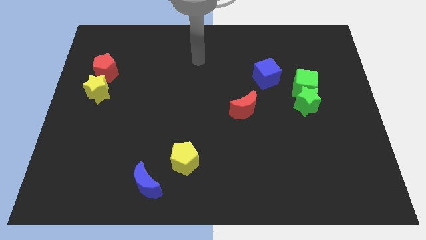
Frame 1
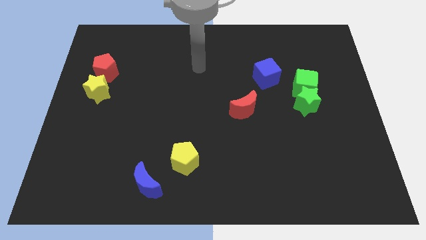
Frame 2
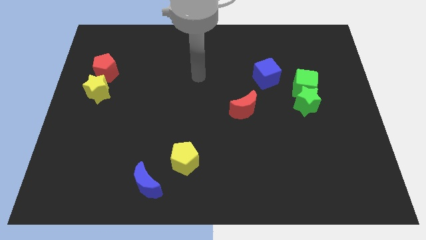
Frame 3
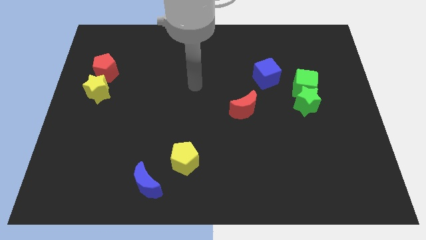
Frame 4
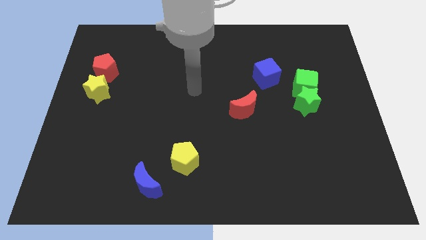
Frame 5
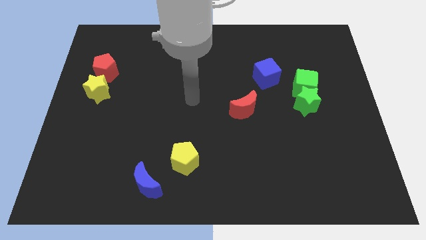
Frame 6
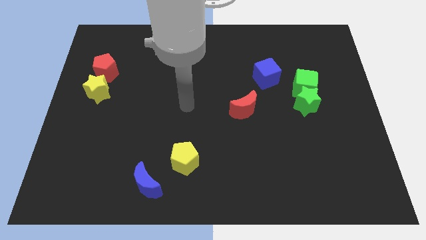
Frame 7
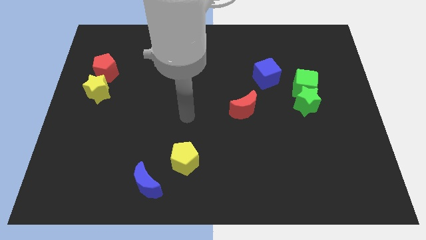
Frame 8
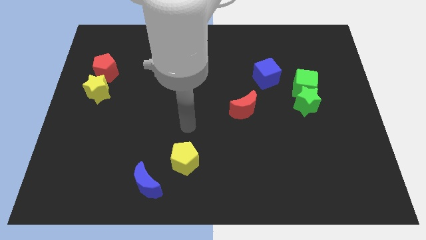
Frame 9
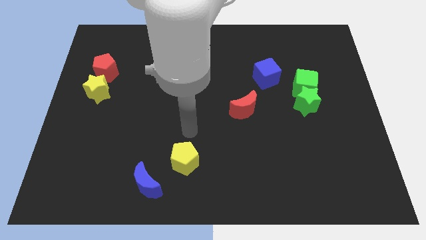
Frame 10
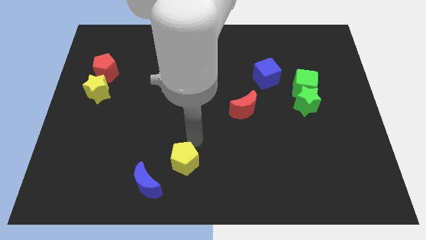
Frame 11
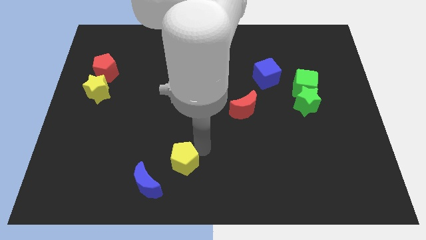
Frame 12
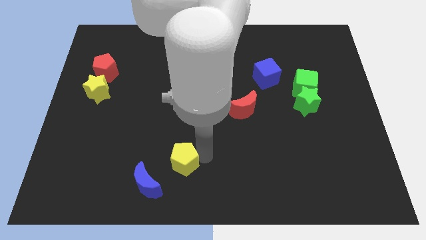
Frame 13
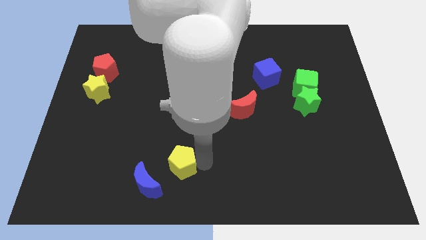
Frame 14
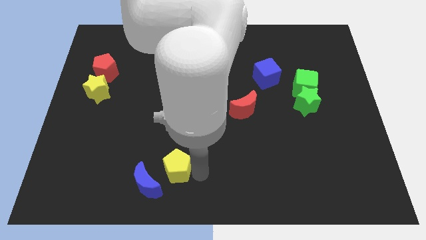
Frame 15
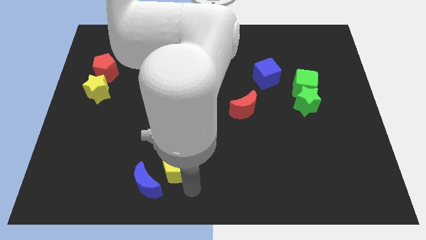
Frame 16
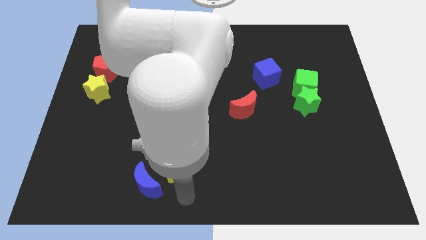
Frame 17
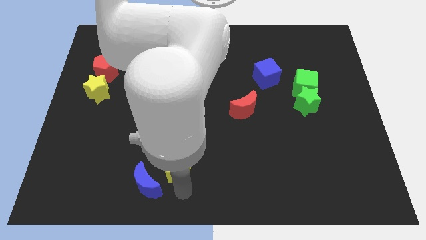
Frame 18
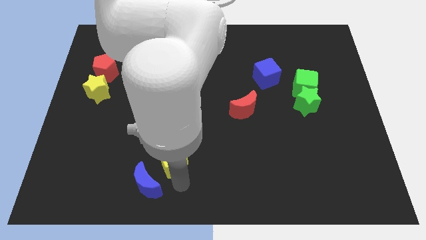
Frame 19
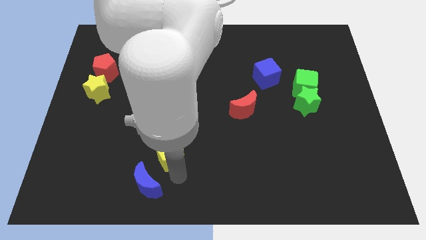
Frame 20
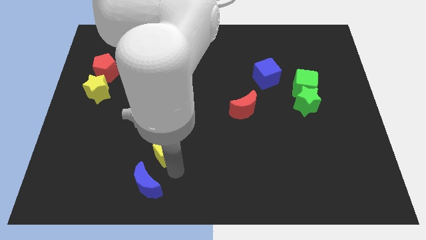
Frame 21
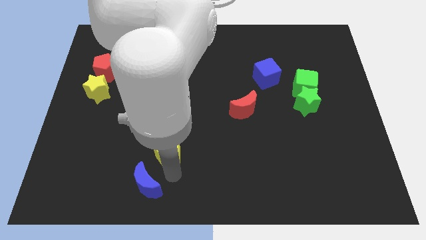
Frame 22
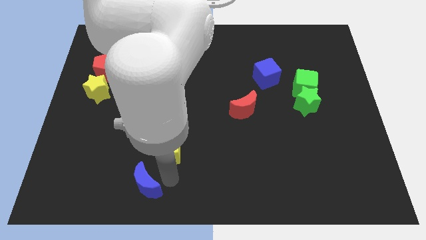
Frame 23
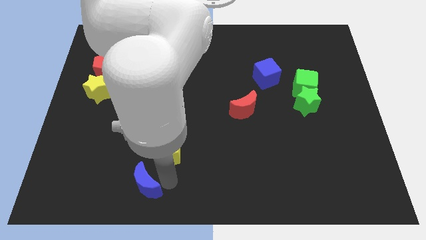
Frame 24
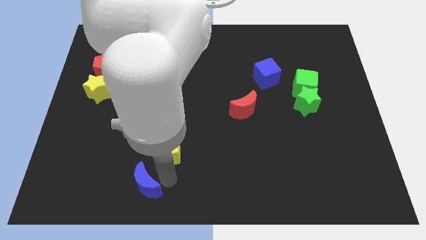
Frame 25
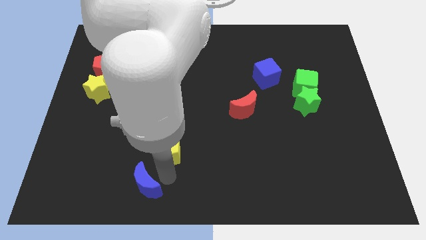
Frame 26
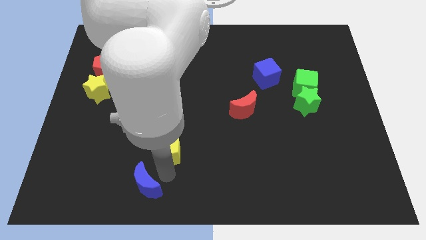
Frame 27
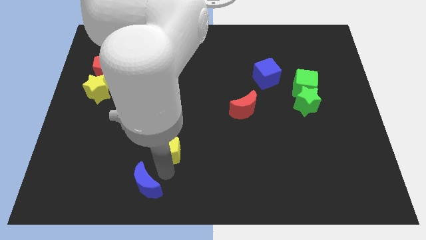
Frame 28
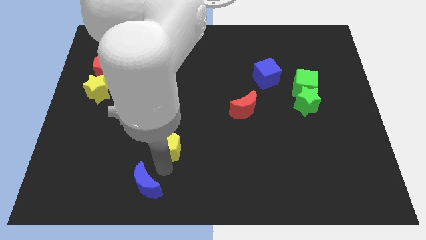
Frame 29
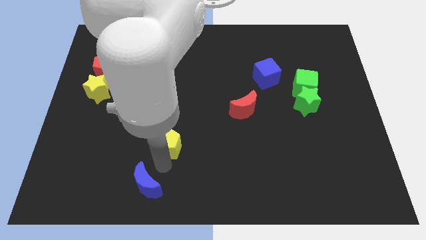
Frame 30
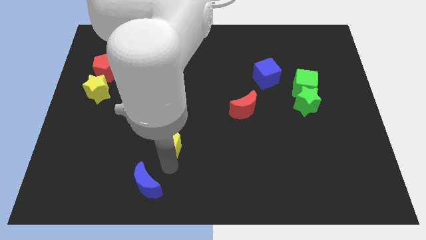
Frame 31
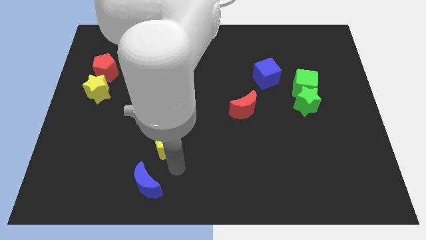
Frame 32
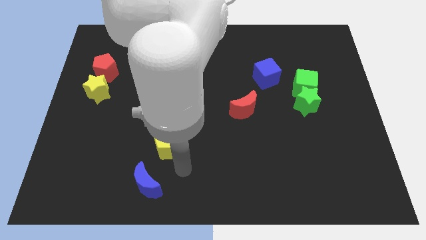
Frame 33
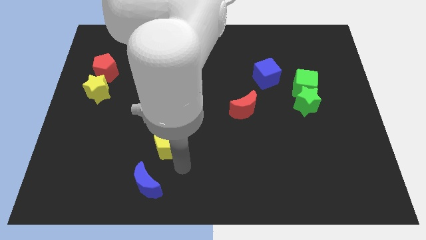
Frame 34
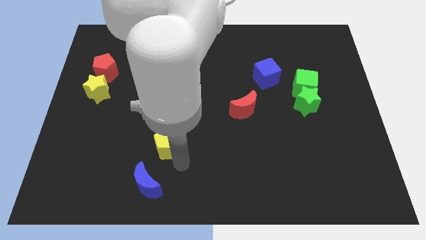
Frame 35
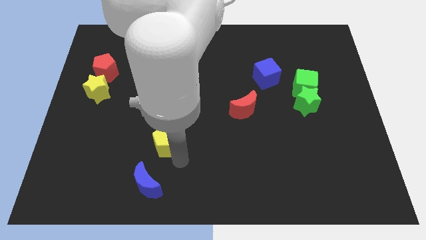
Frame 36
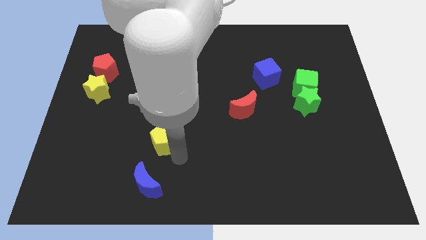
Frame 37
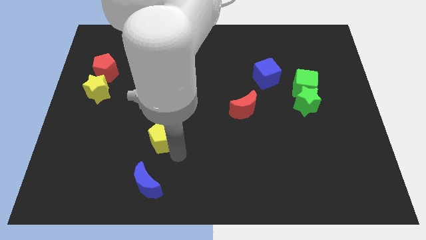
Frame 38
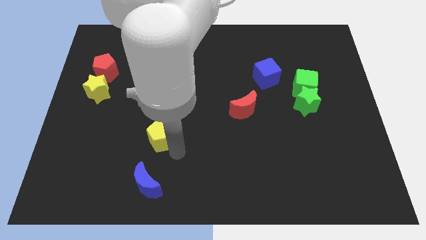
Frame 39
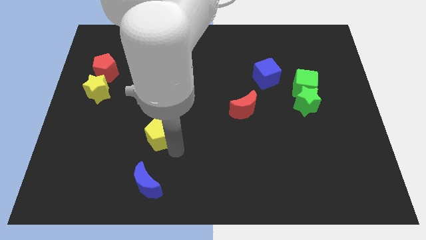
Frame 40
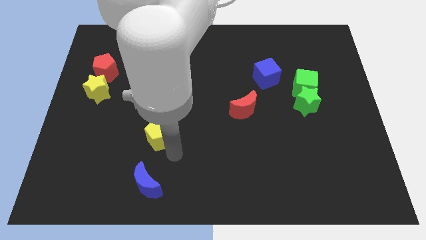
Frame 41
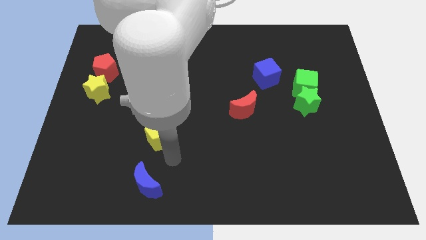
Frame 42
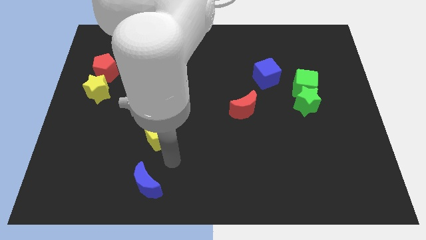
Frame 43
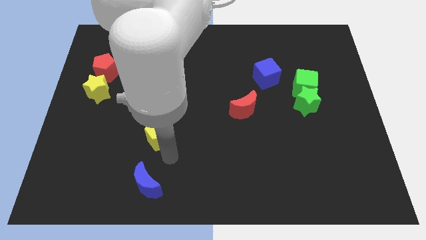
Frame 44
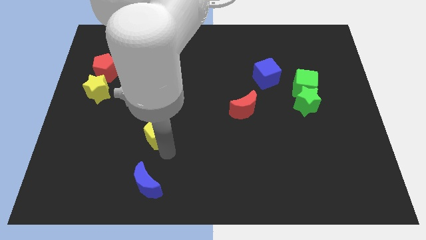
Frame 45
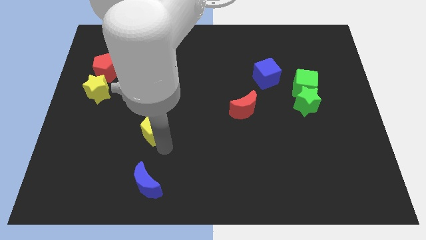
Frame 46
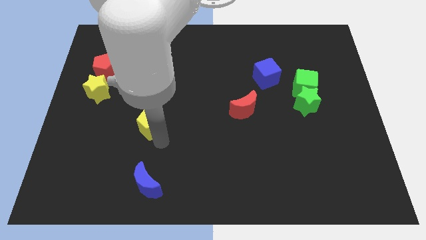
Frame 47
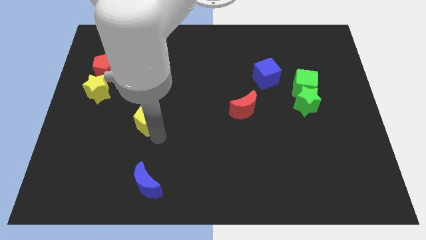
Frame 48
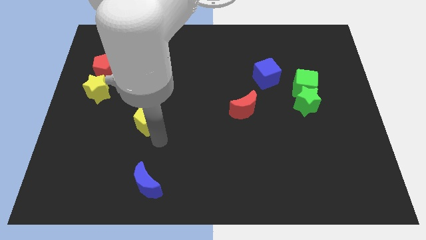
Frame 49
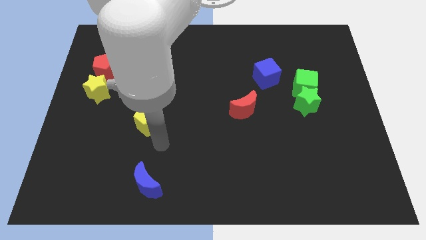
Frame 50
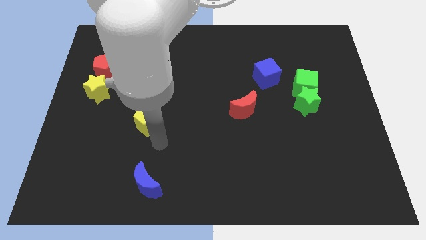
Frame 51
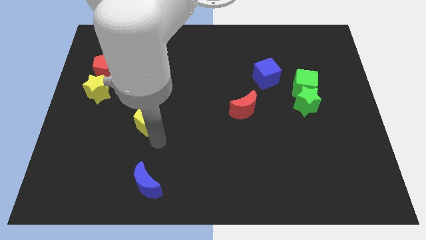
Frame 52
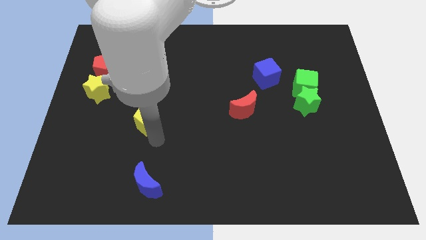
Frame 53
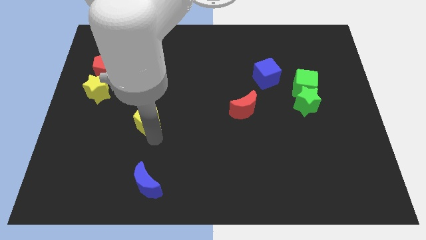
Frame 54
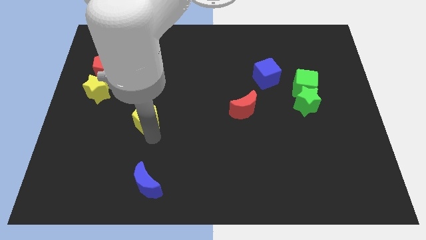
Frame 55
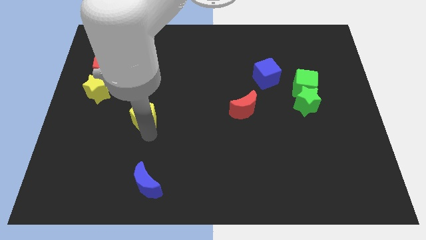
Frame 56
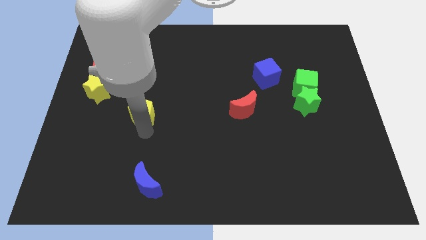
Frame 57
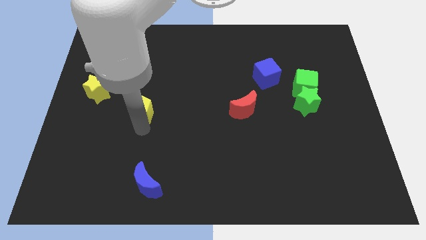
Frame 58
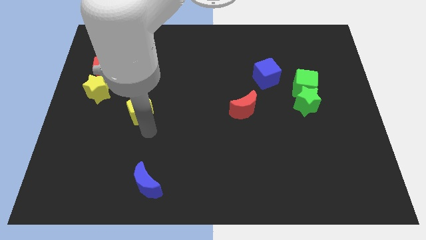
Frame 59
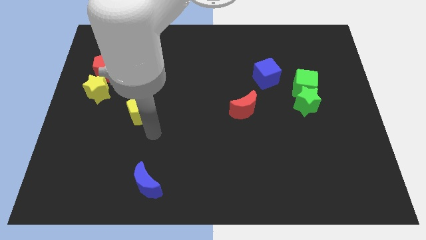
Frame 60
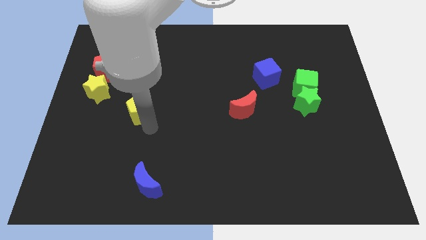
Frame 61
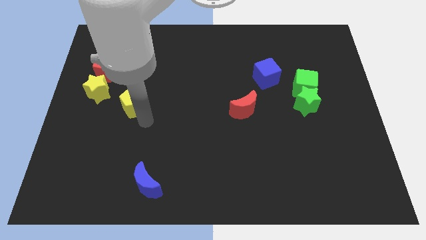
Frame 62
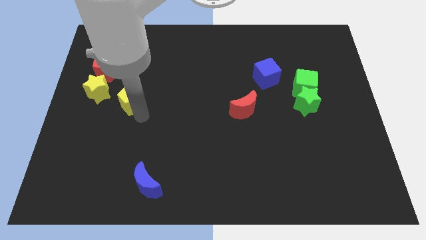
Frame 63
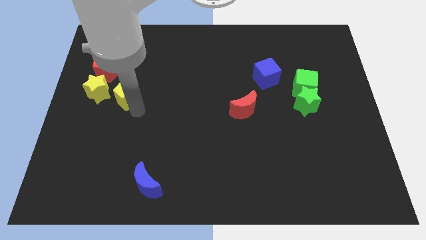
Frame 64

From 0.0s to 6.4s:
push the yellow pentagon diagonally down and to the right of the red pentagon

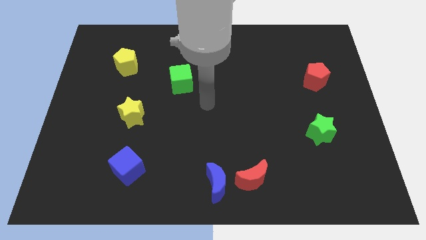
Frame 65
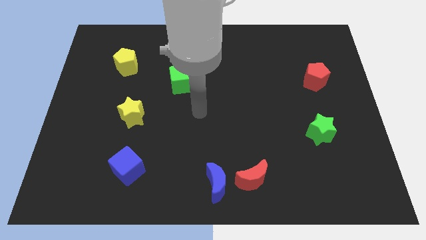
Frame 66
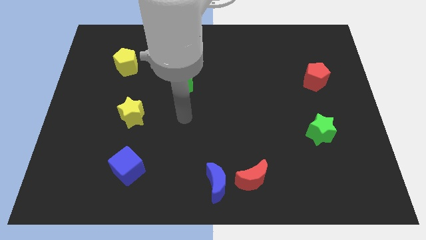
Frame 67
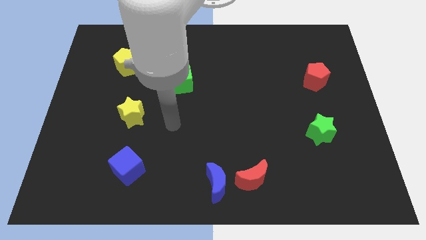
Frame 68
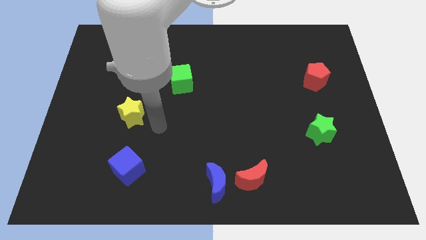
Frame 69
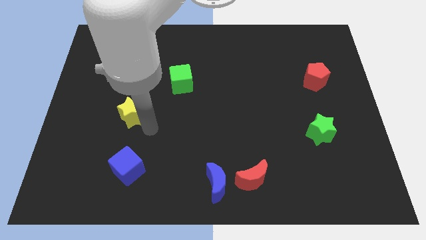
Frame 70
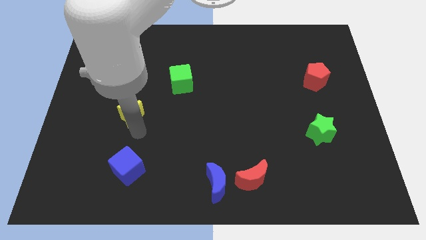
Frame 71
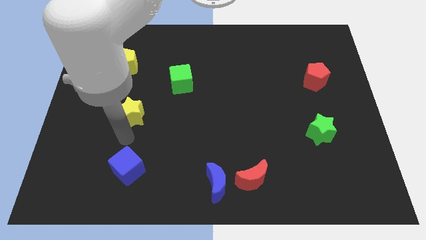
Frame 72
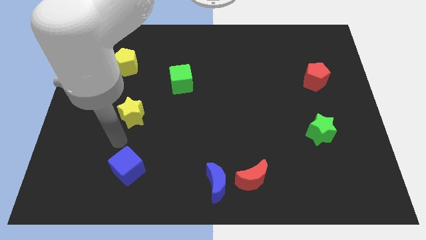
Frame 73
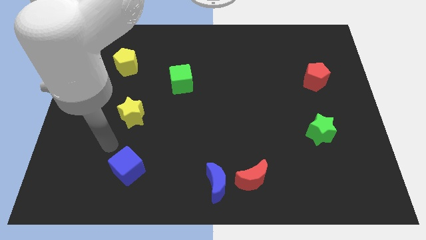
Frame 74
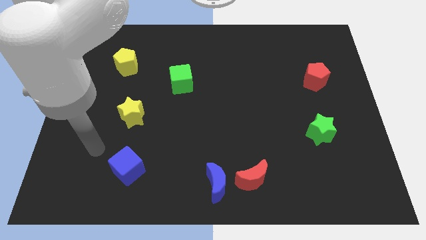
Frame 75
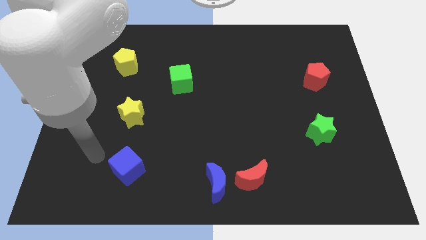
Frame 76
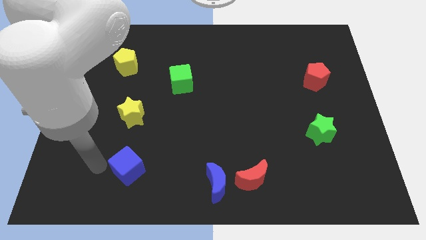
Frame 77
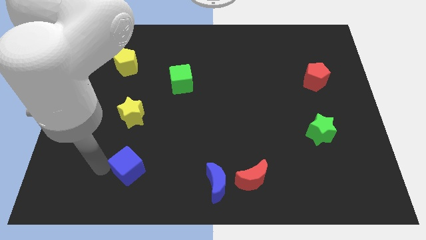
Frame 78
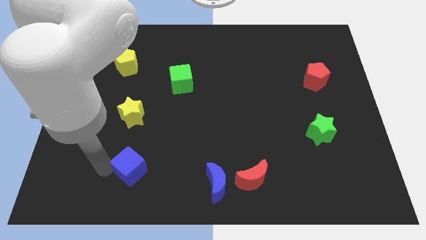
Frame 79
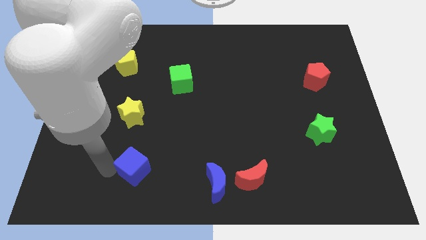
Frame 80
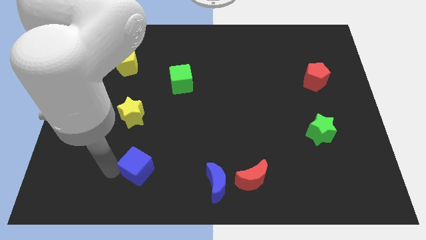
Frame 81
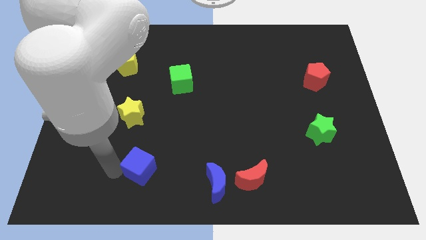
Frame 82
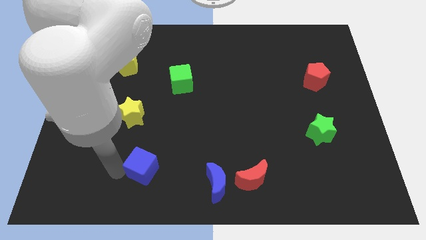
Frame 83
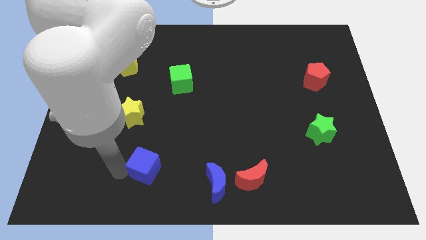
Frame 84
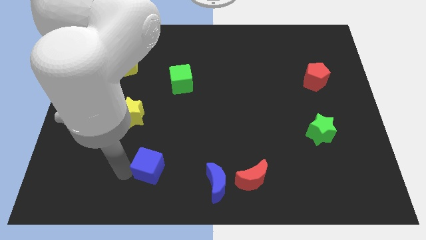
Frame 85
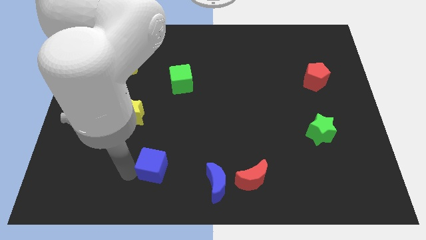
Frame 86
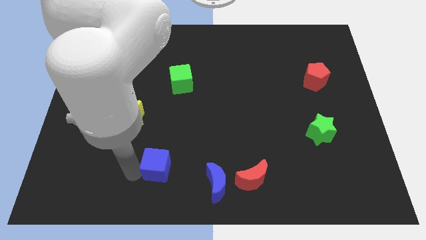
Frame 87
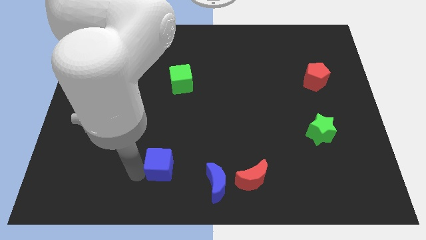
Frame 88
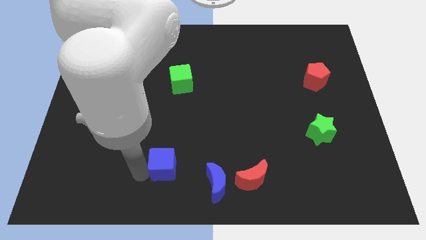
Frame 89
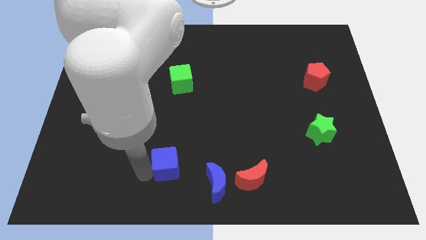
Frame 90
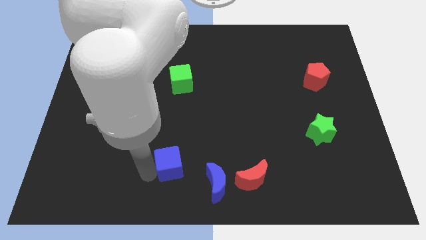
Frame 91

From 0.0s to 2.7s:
push the blue cube to the top left of the blue moon
